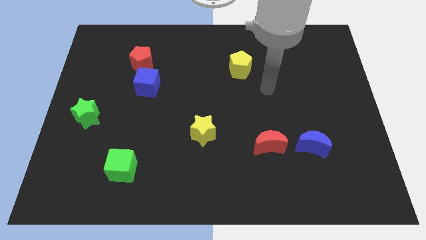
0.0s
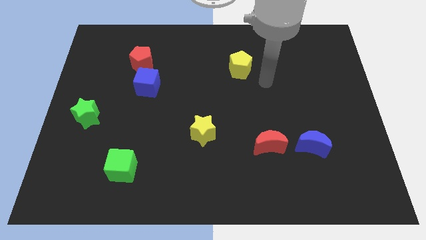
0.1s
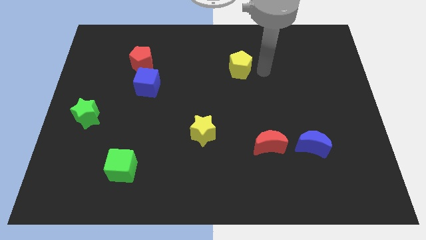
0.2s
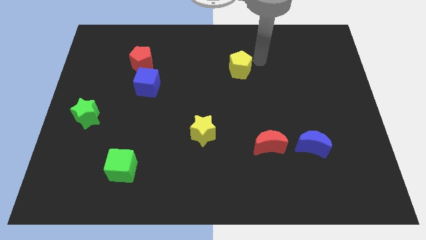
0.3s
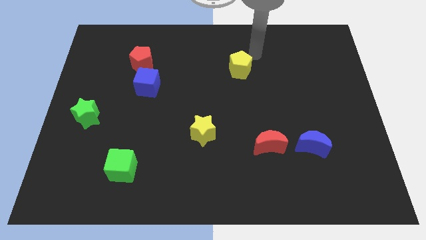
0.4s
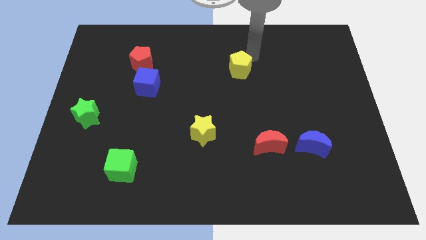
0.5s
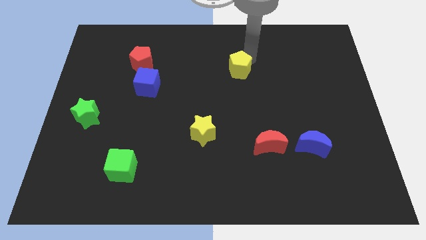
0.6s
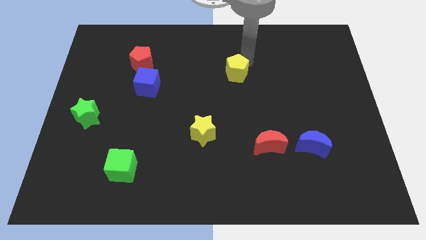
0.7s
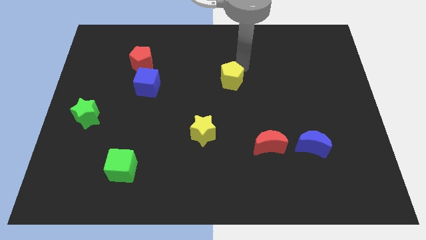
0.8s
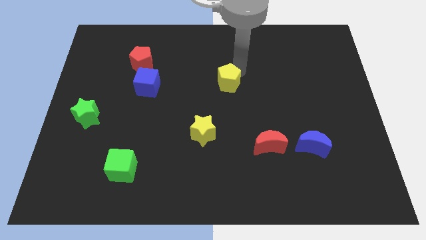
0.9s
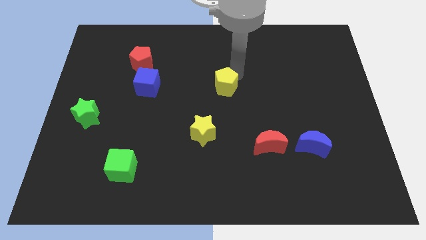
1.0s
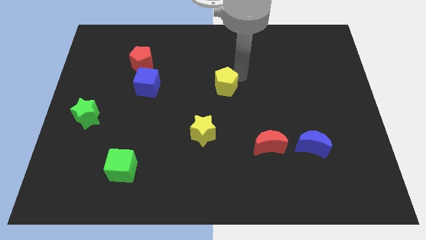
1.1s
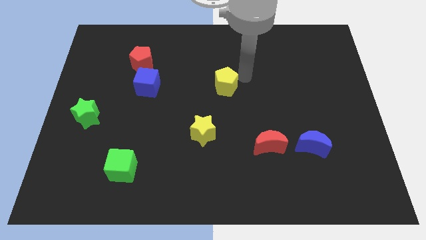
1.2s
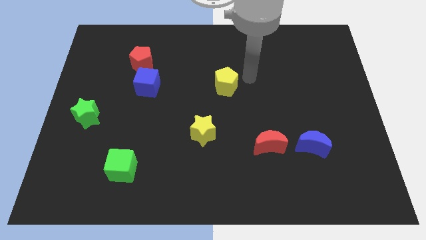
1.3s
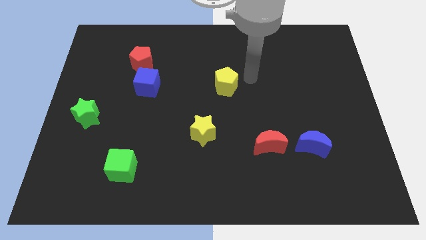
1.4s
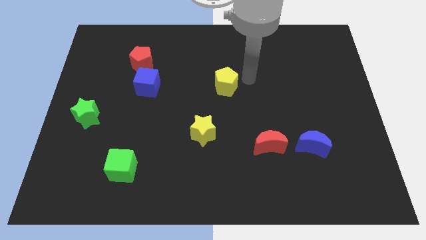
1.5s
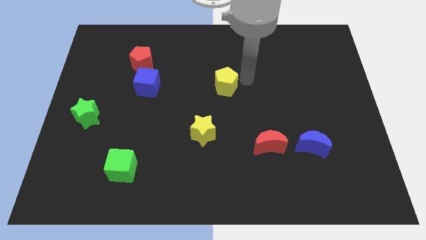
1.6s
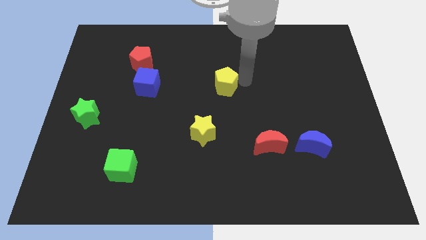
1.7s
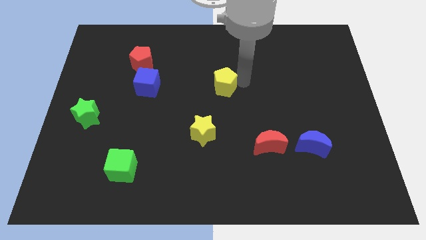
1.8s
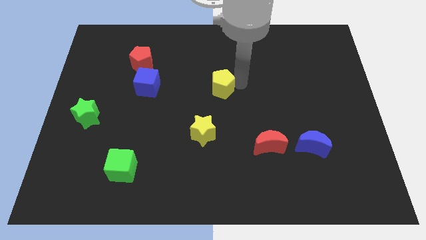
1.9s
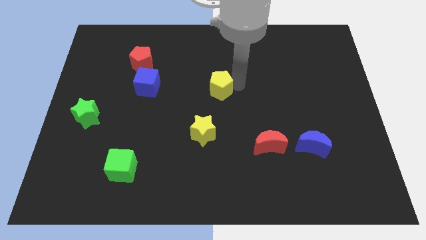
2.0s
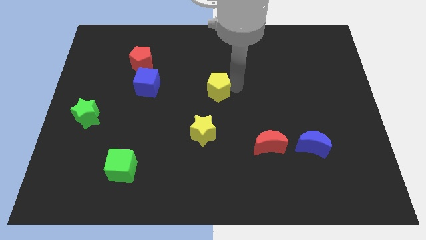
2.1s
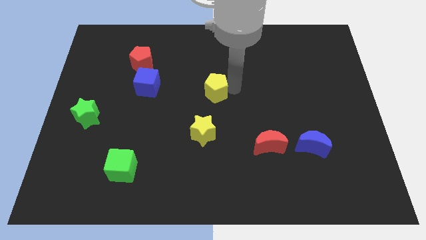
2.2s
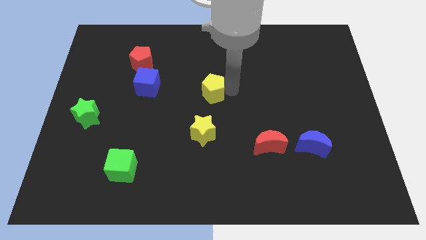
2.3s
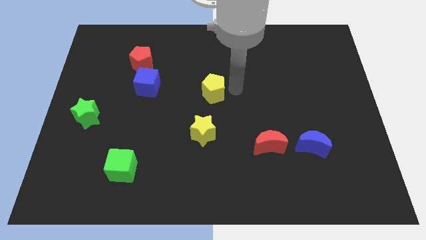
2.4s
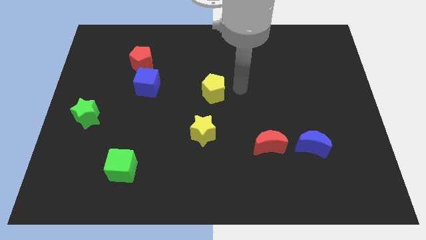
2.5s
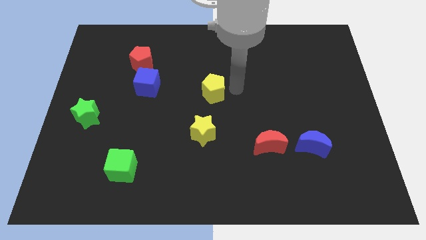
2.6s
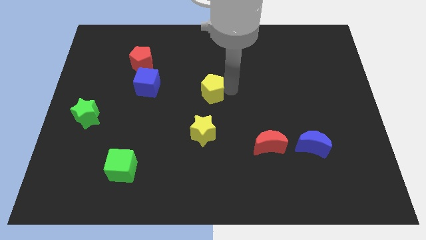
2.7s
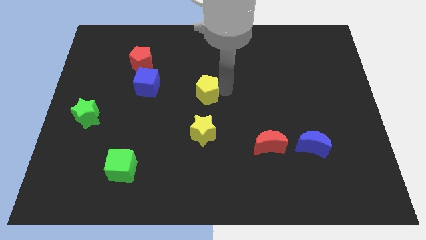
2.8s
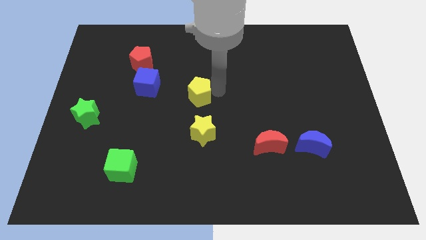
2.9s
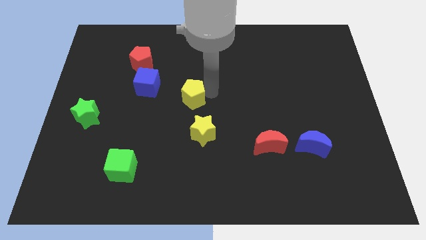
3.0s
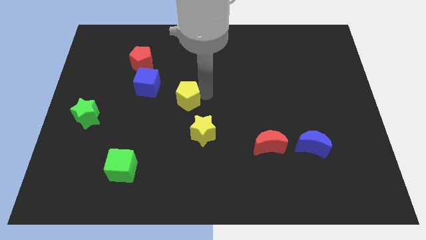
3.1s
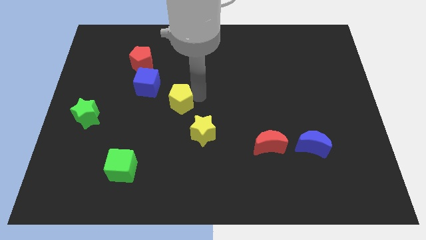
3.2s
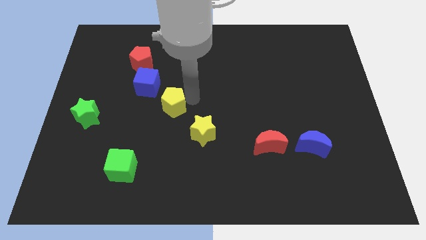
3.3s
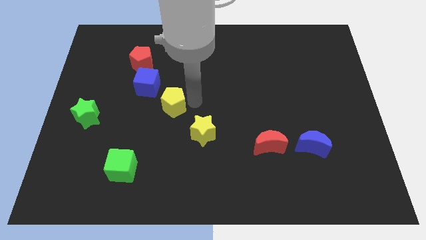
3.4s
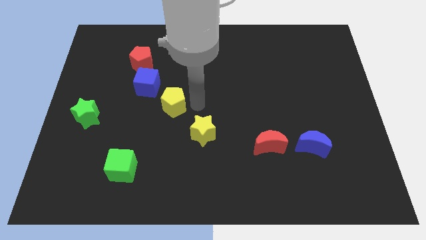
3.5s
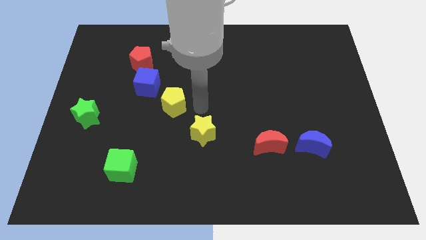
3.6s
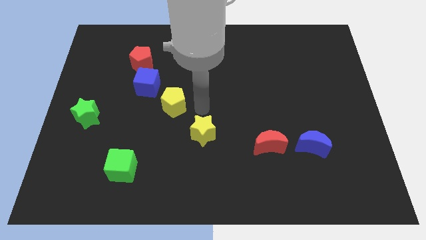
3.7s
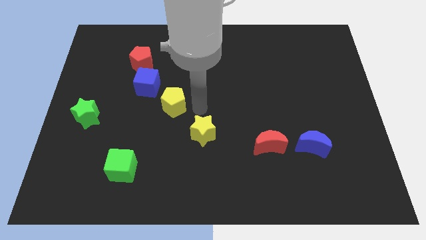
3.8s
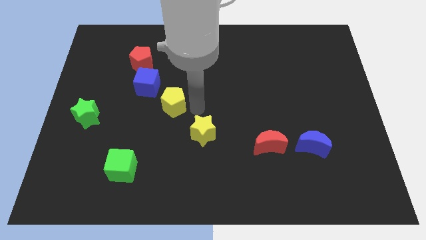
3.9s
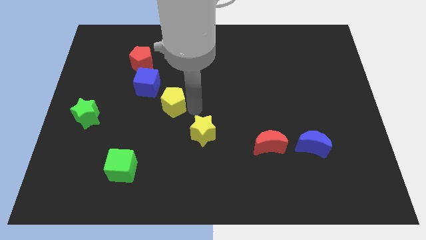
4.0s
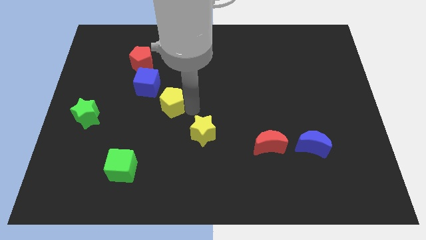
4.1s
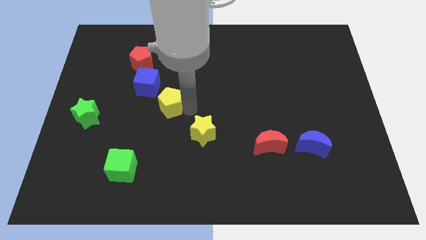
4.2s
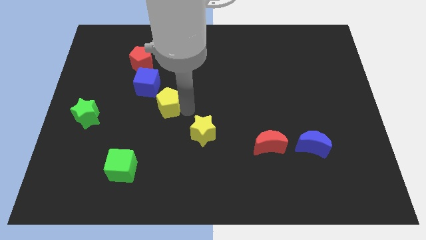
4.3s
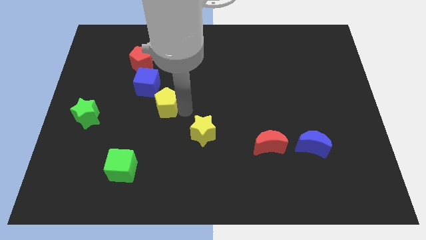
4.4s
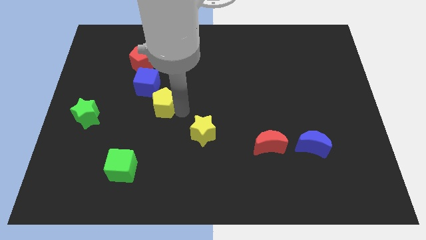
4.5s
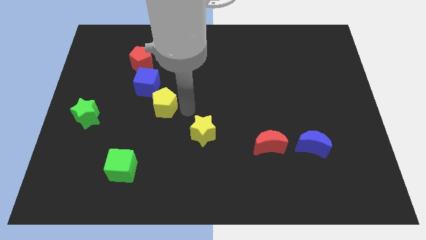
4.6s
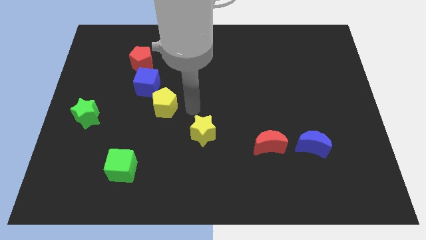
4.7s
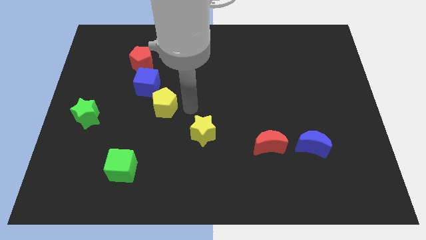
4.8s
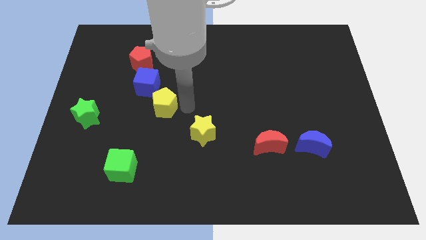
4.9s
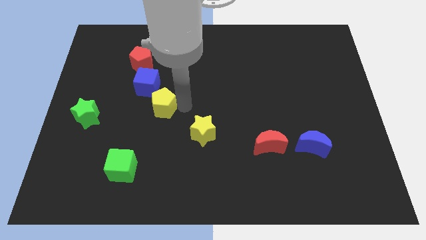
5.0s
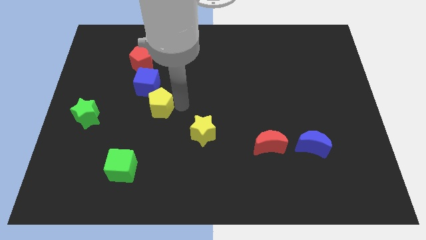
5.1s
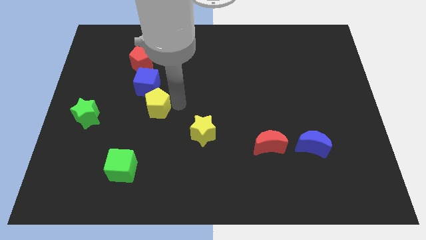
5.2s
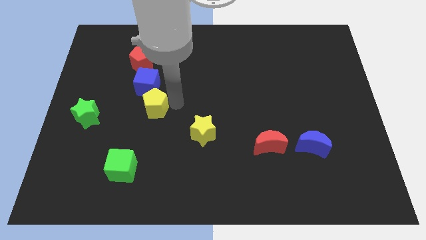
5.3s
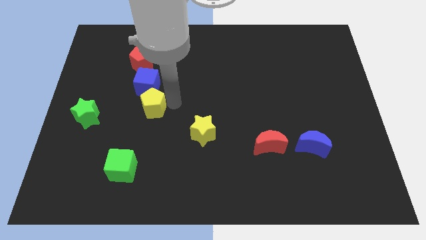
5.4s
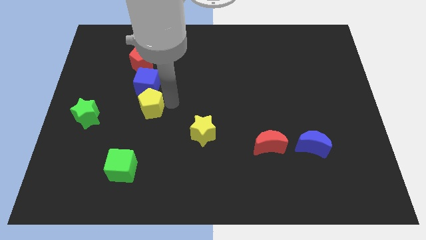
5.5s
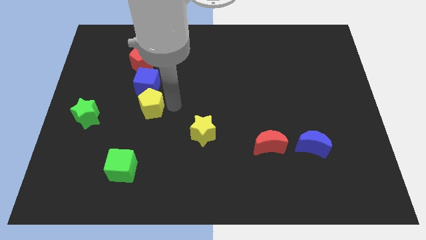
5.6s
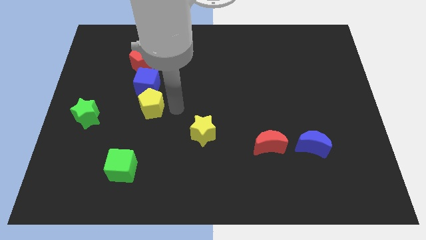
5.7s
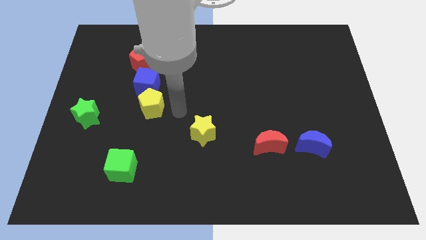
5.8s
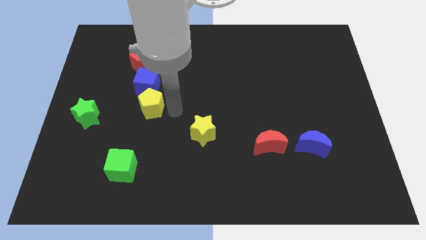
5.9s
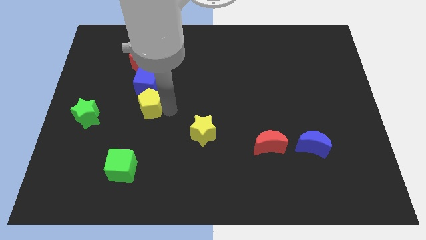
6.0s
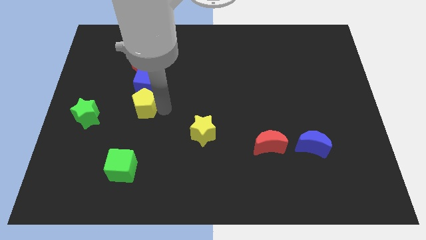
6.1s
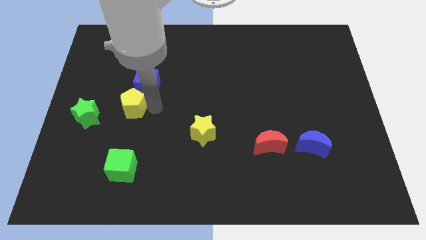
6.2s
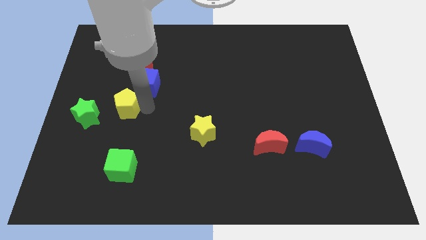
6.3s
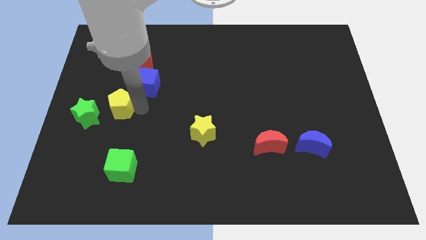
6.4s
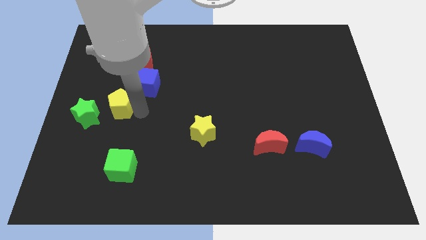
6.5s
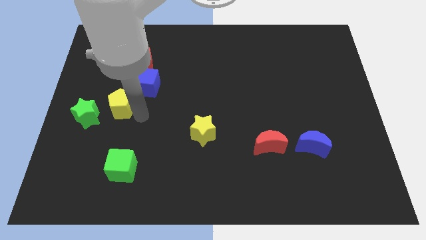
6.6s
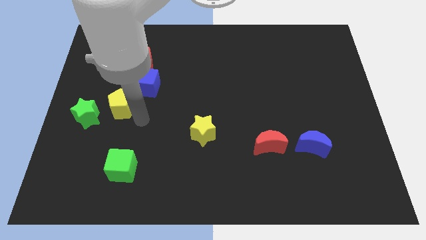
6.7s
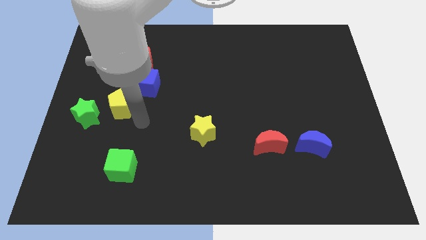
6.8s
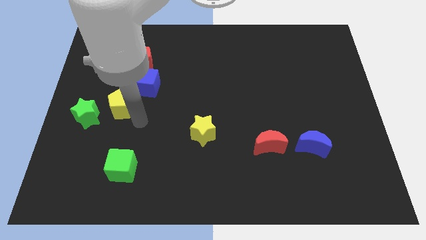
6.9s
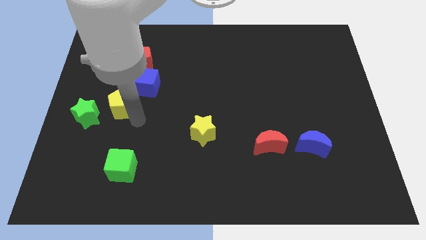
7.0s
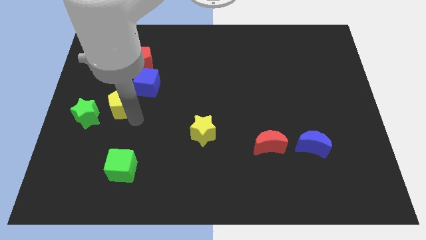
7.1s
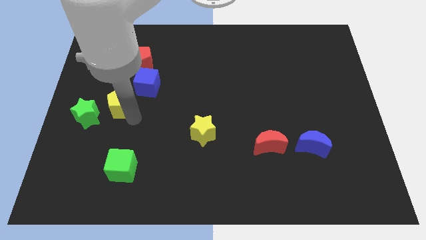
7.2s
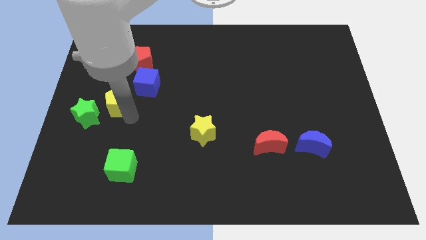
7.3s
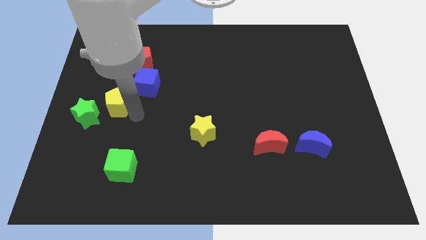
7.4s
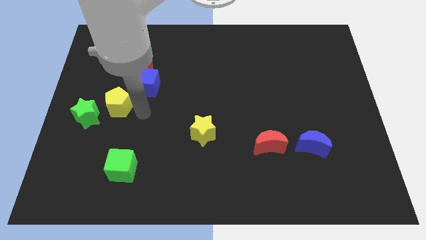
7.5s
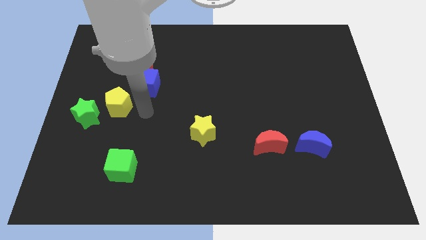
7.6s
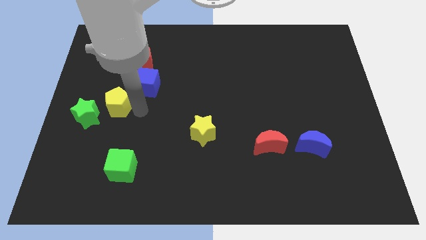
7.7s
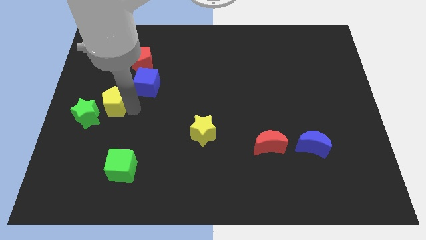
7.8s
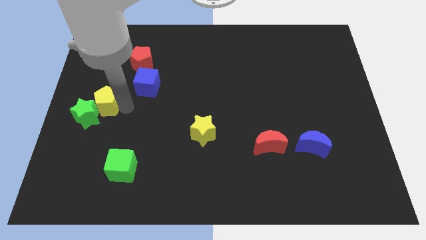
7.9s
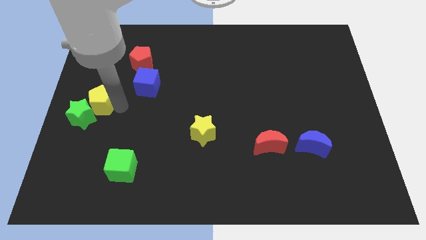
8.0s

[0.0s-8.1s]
put the yellow pentagon to the left side
